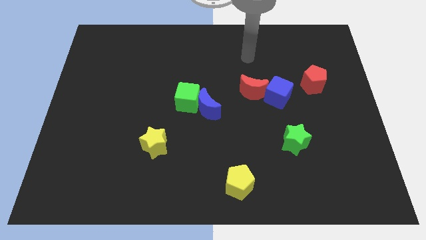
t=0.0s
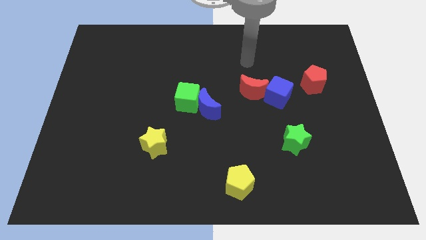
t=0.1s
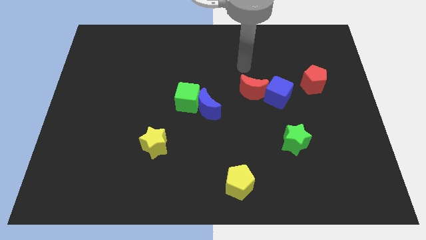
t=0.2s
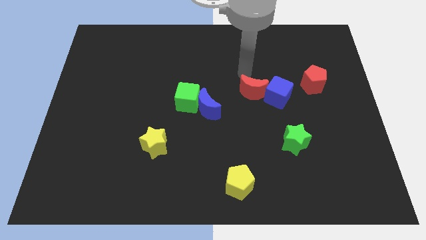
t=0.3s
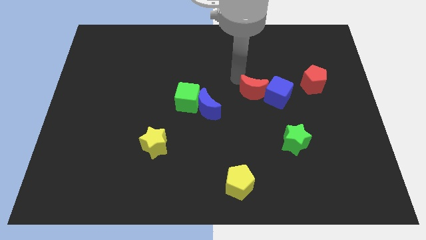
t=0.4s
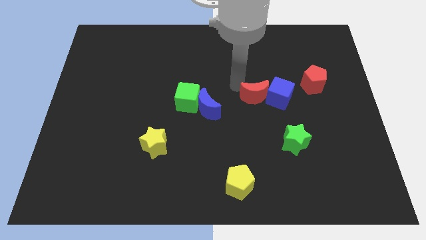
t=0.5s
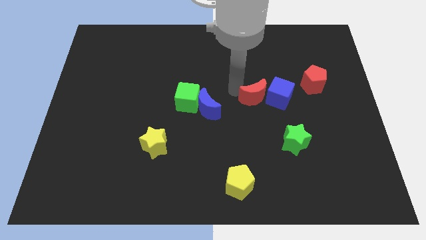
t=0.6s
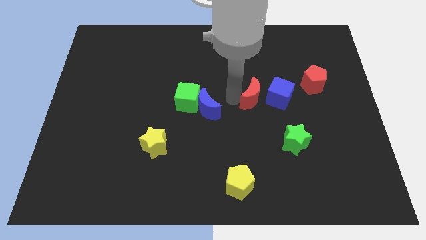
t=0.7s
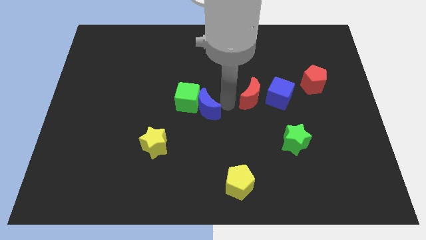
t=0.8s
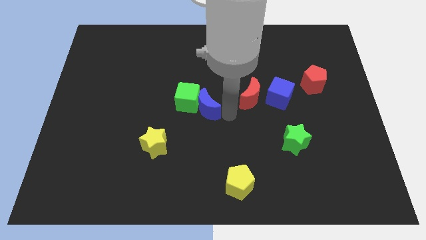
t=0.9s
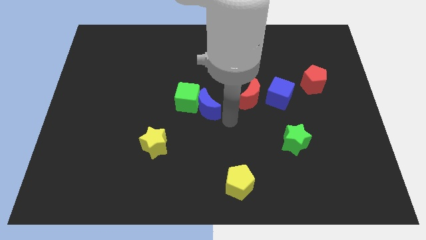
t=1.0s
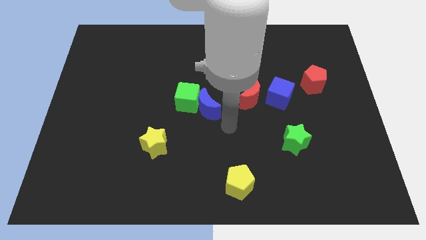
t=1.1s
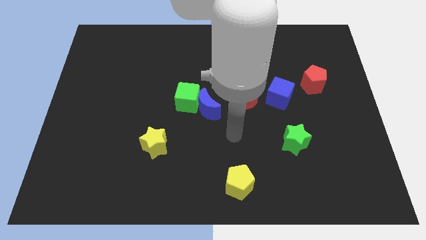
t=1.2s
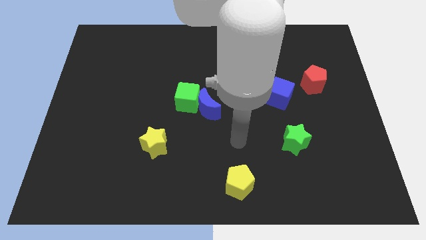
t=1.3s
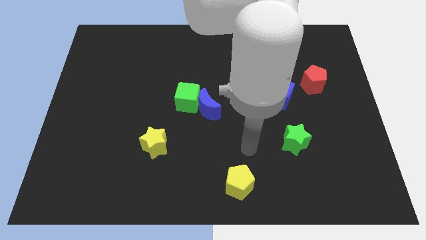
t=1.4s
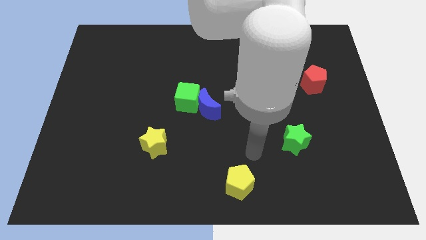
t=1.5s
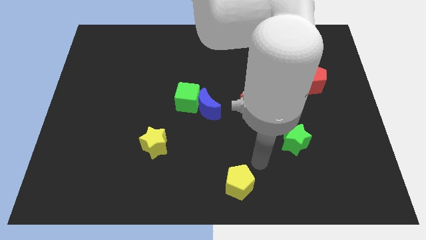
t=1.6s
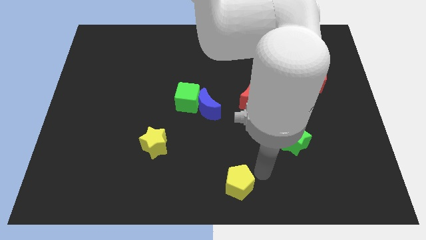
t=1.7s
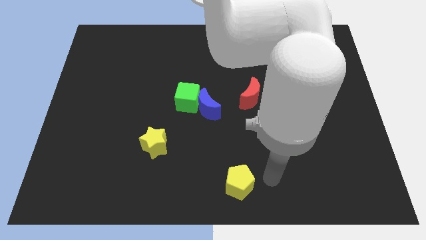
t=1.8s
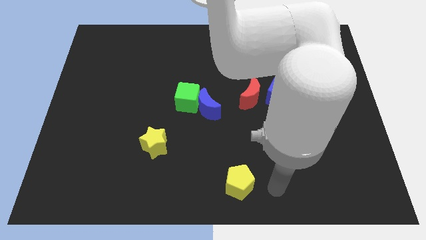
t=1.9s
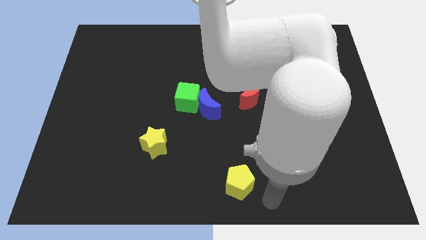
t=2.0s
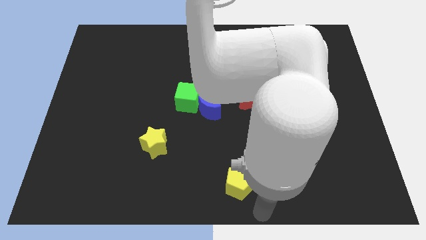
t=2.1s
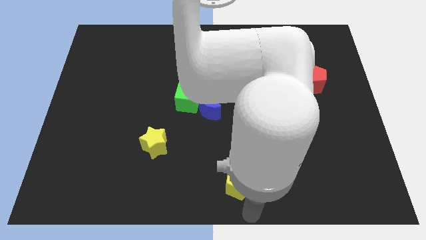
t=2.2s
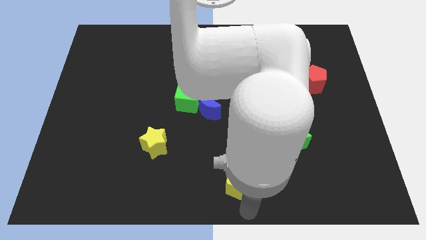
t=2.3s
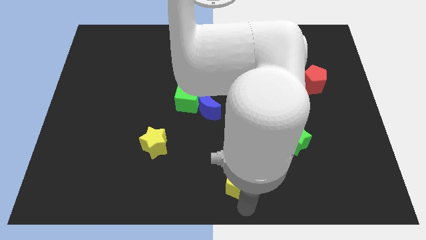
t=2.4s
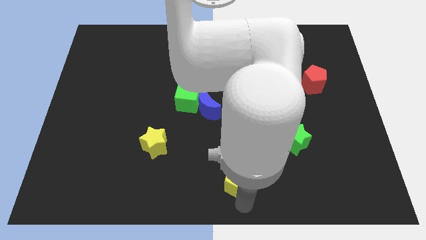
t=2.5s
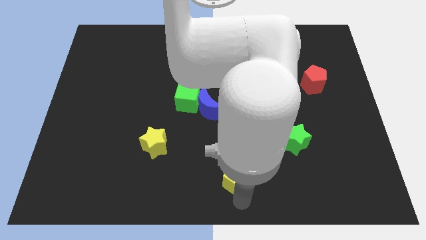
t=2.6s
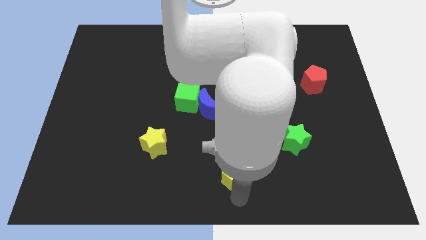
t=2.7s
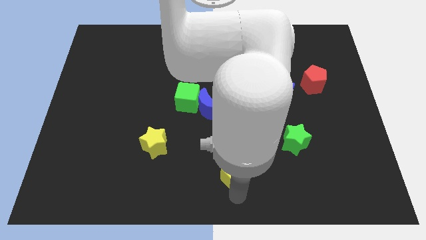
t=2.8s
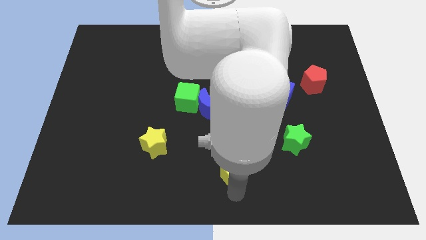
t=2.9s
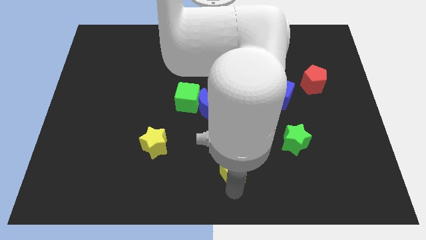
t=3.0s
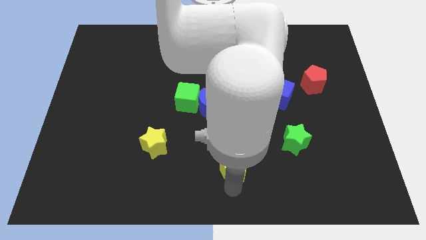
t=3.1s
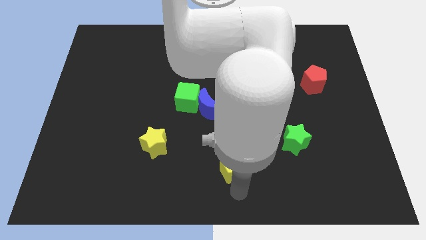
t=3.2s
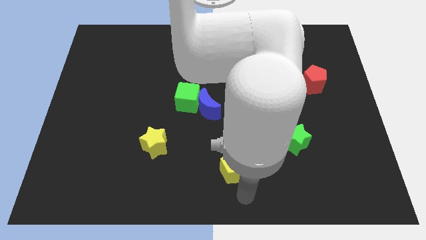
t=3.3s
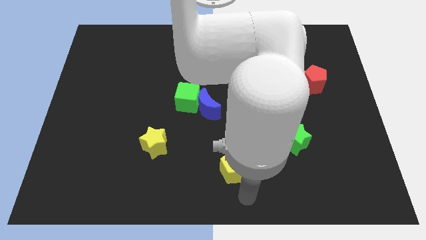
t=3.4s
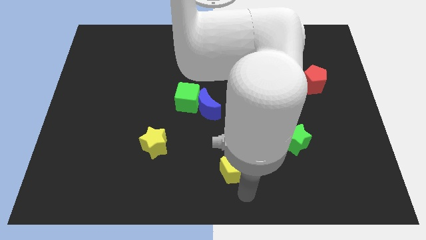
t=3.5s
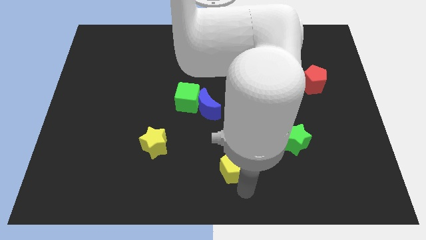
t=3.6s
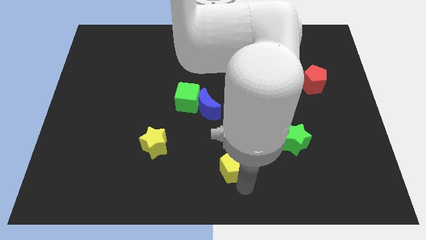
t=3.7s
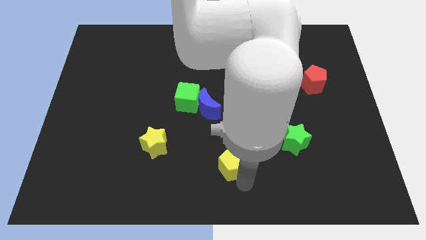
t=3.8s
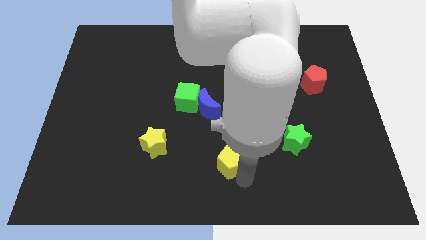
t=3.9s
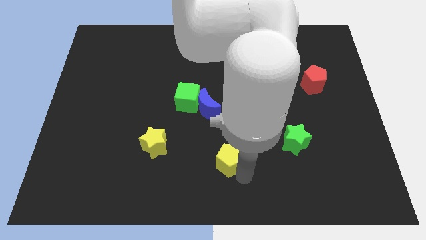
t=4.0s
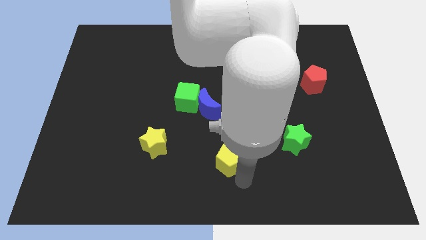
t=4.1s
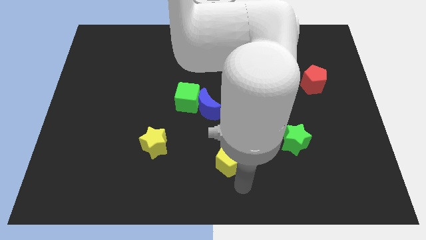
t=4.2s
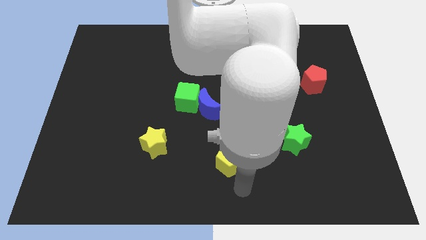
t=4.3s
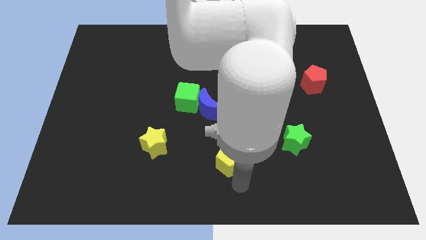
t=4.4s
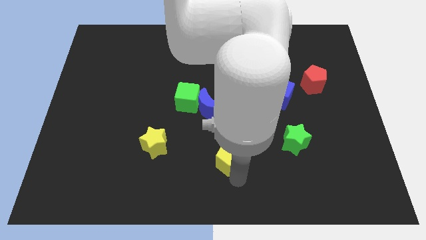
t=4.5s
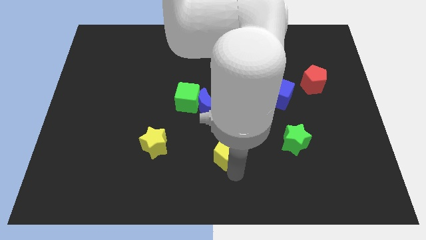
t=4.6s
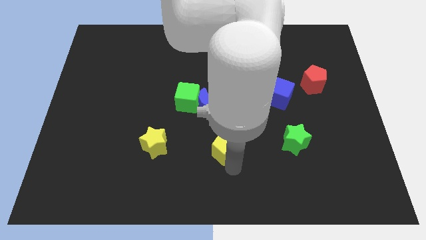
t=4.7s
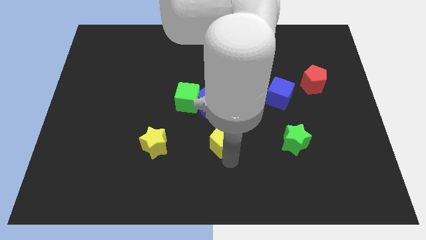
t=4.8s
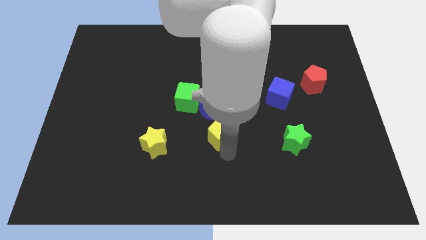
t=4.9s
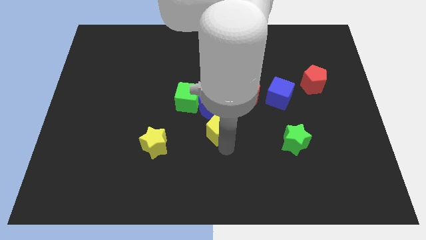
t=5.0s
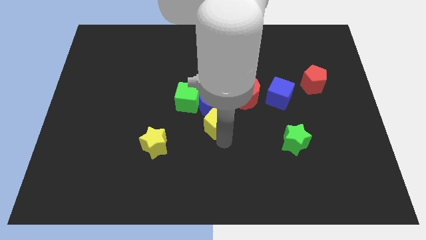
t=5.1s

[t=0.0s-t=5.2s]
slide the yellow pentagon next to the blue moon

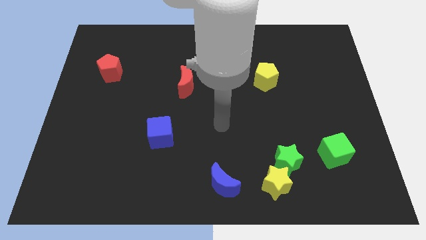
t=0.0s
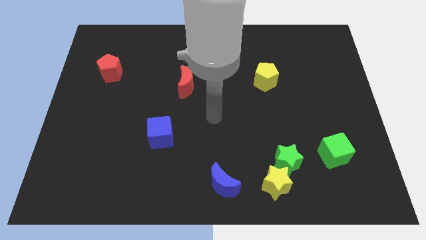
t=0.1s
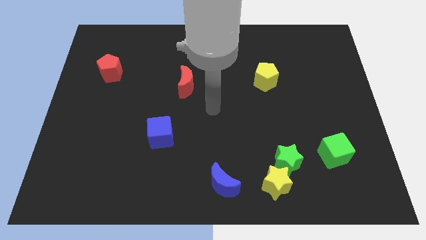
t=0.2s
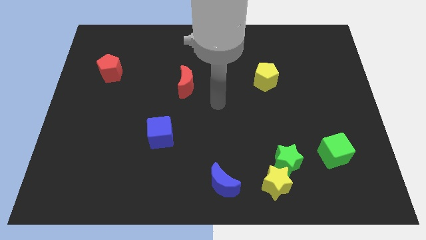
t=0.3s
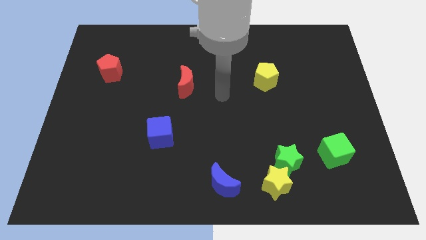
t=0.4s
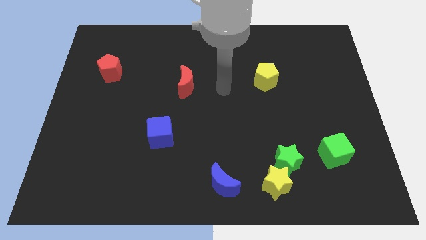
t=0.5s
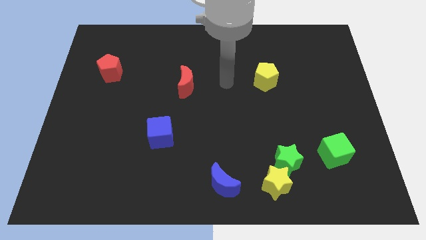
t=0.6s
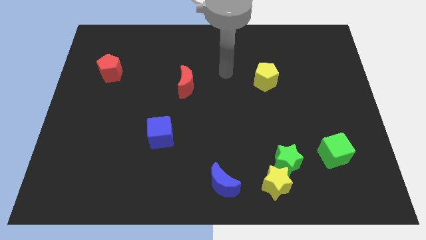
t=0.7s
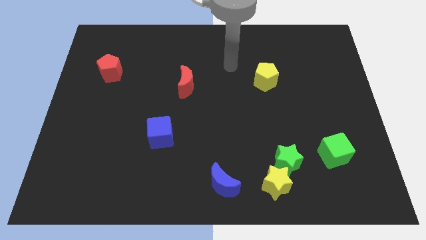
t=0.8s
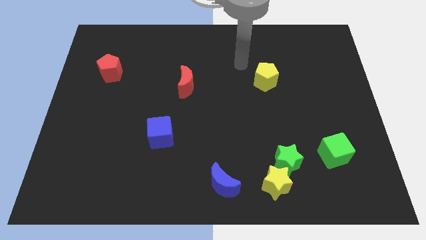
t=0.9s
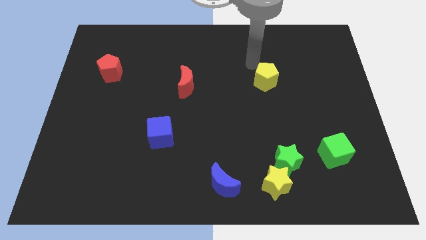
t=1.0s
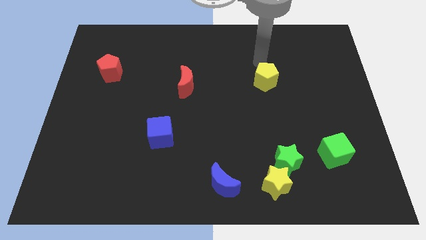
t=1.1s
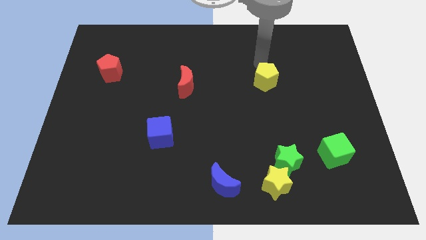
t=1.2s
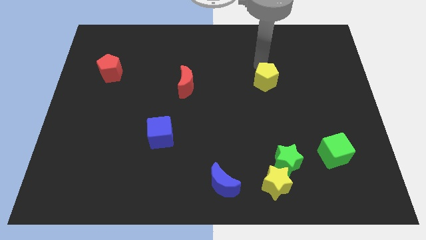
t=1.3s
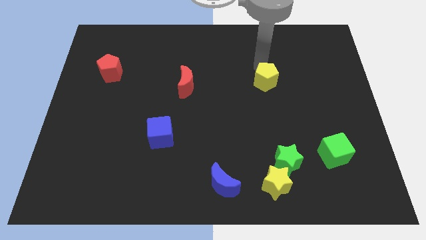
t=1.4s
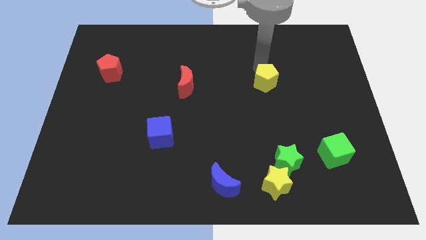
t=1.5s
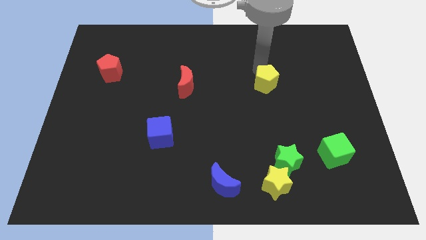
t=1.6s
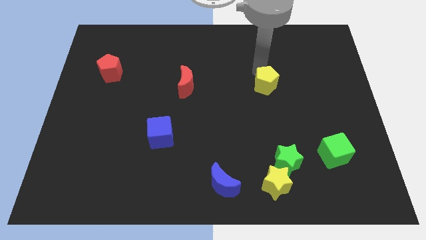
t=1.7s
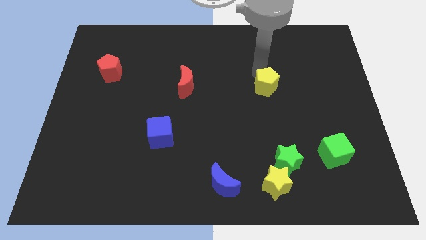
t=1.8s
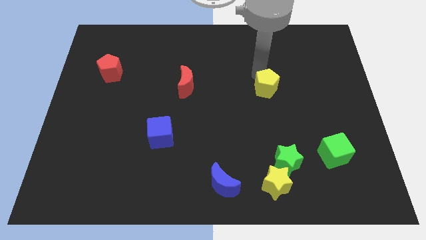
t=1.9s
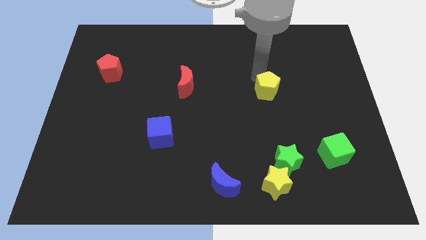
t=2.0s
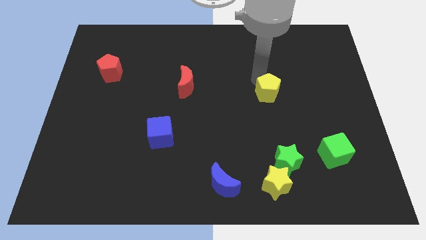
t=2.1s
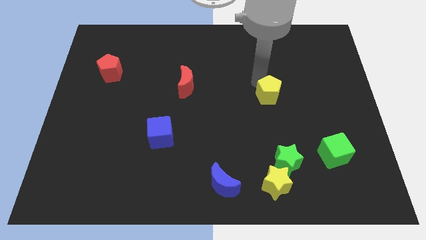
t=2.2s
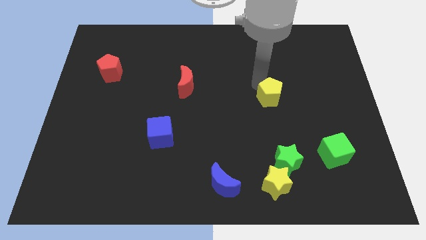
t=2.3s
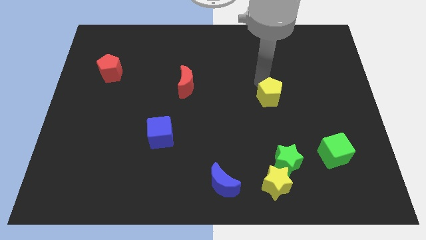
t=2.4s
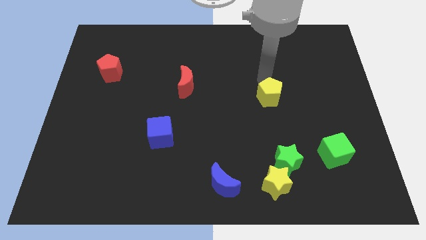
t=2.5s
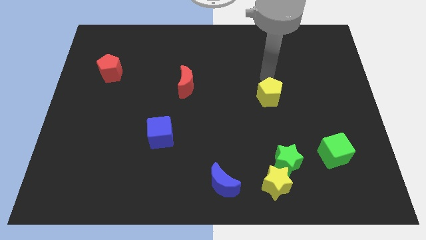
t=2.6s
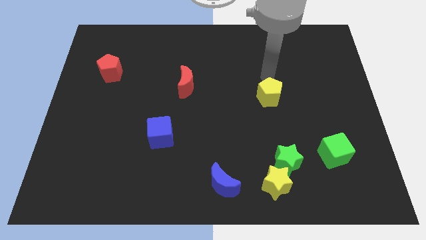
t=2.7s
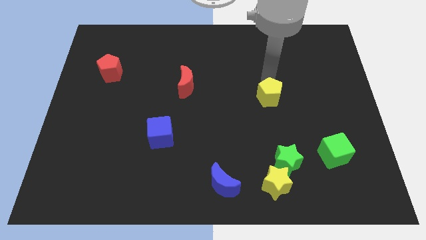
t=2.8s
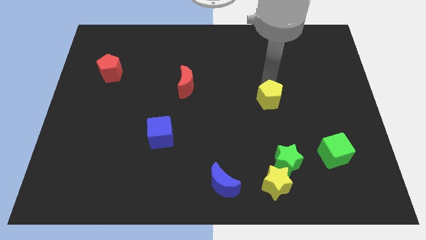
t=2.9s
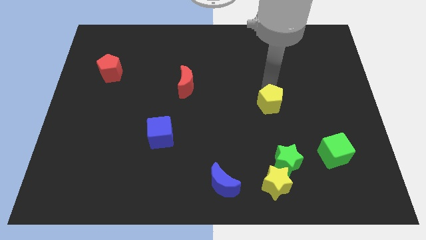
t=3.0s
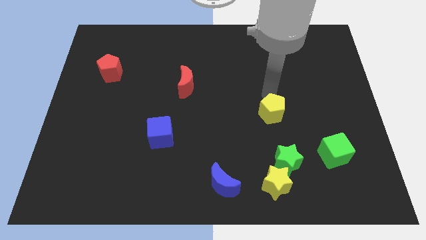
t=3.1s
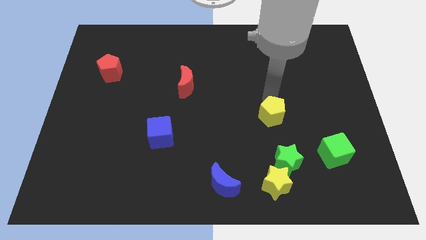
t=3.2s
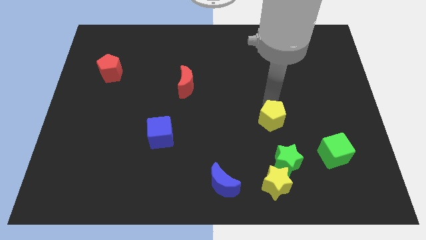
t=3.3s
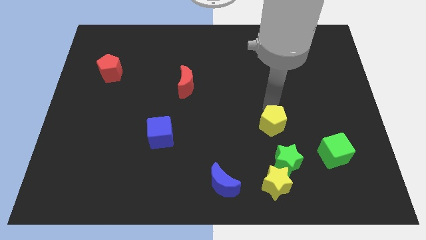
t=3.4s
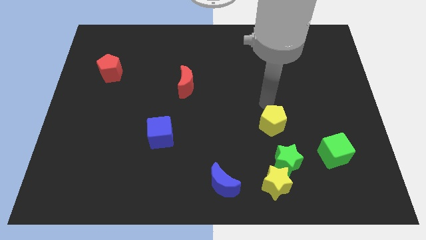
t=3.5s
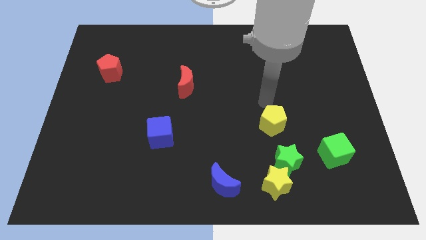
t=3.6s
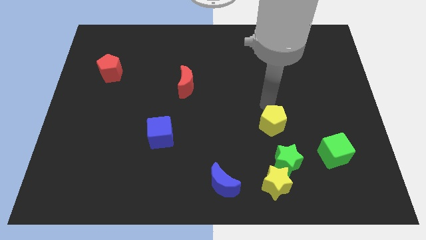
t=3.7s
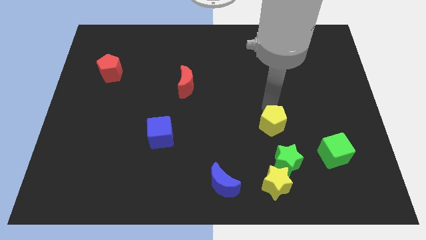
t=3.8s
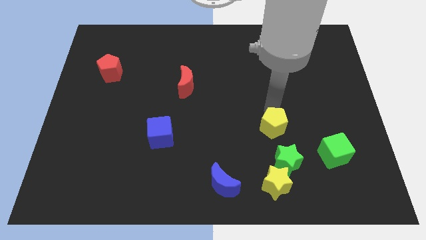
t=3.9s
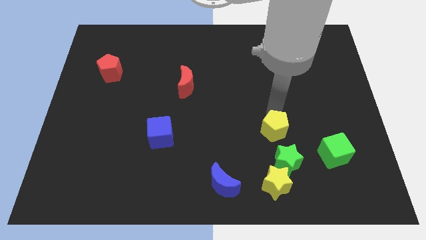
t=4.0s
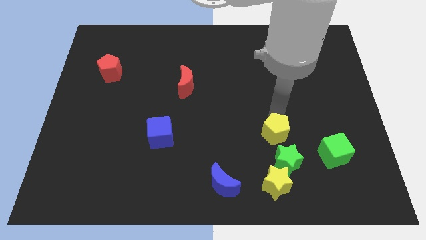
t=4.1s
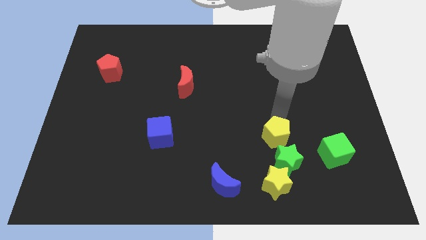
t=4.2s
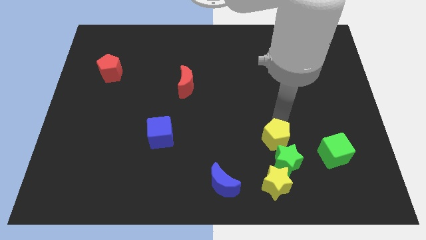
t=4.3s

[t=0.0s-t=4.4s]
put the yellow pentagon to the green star
